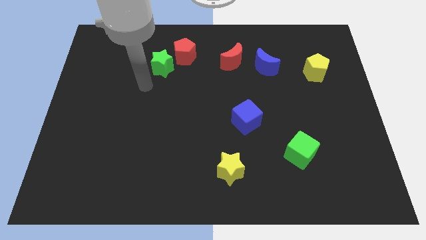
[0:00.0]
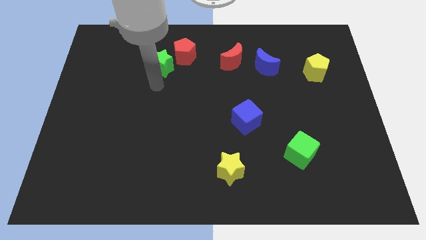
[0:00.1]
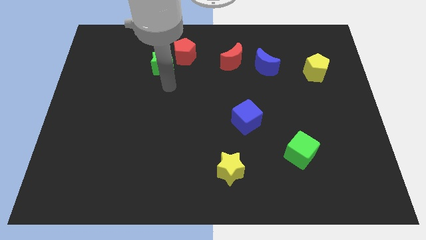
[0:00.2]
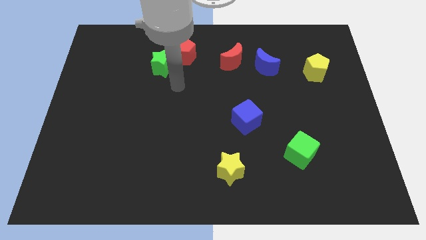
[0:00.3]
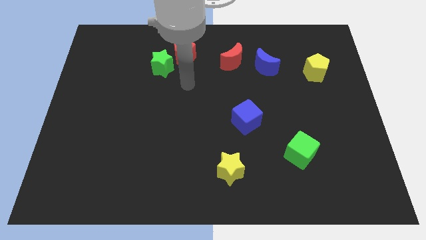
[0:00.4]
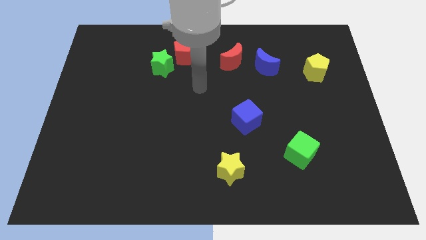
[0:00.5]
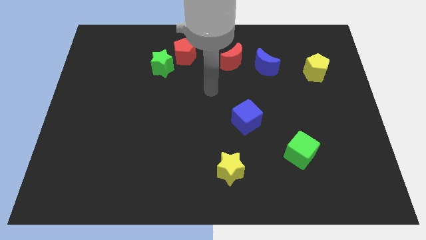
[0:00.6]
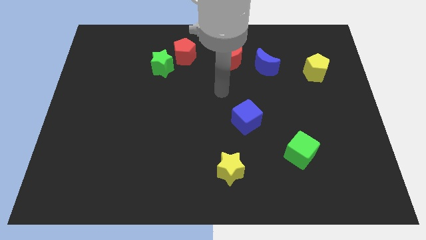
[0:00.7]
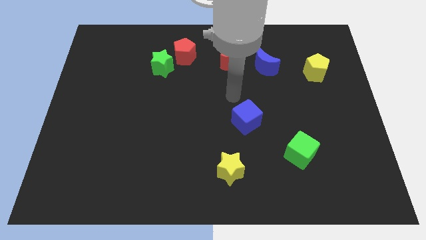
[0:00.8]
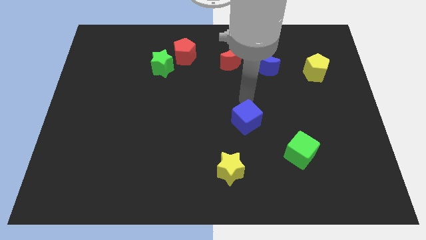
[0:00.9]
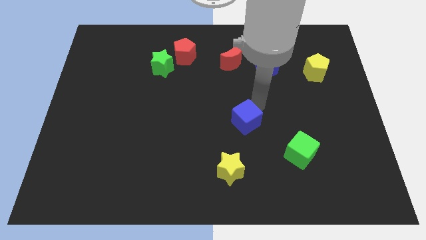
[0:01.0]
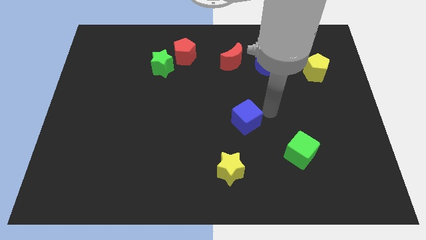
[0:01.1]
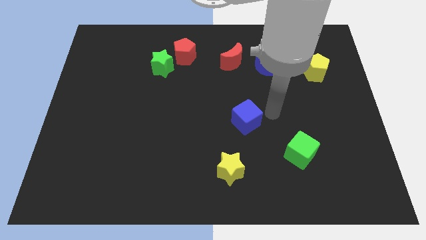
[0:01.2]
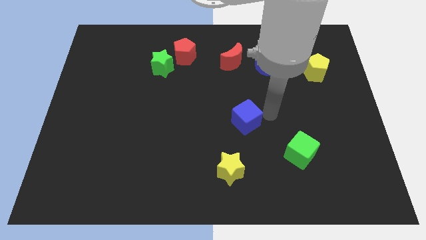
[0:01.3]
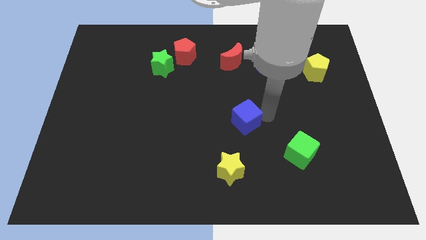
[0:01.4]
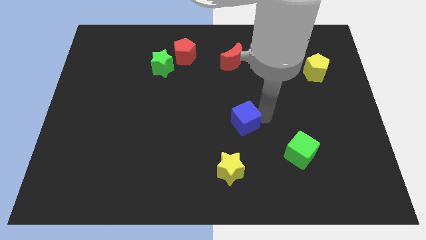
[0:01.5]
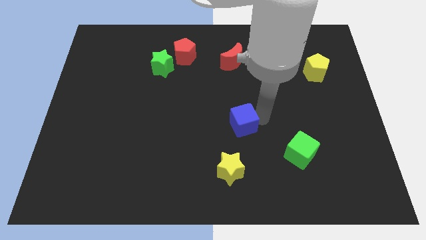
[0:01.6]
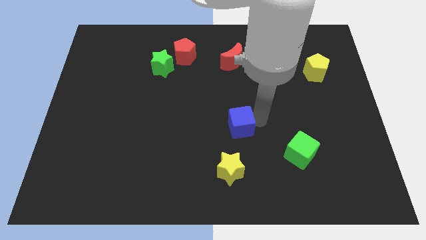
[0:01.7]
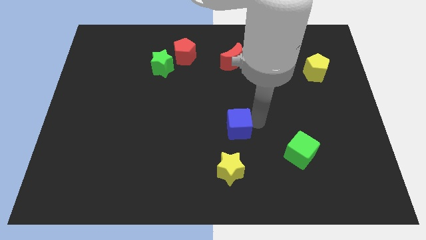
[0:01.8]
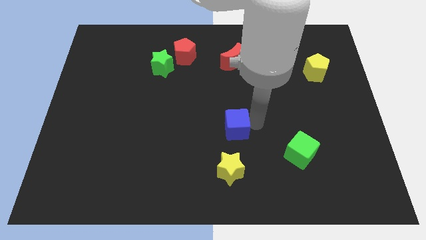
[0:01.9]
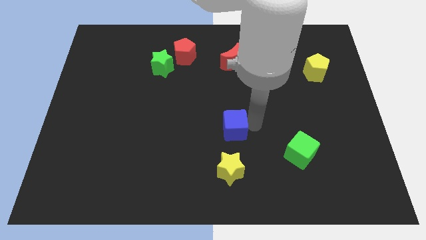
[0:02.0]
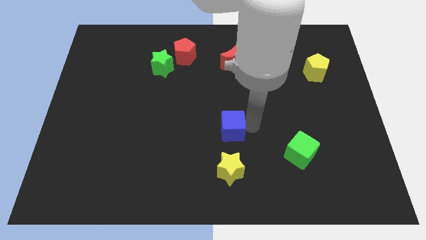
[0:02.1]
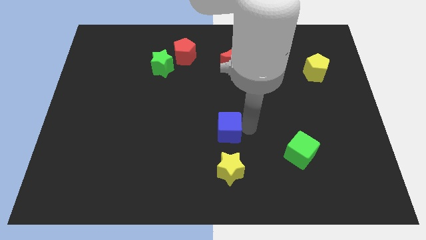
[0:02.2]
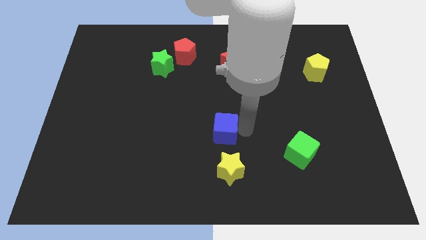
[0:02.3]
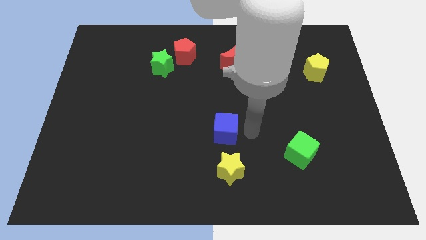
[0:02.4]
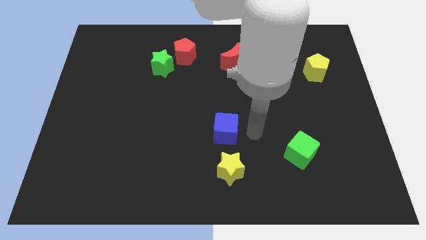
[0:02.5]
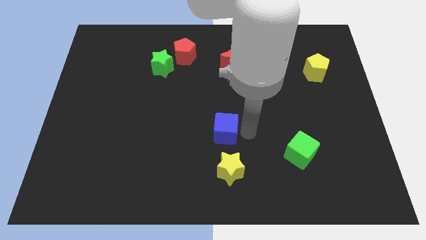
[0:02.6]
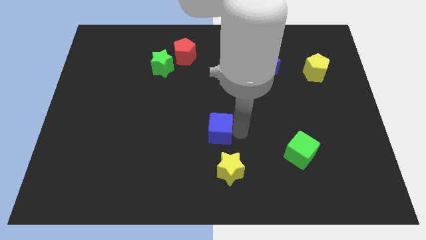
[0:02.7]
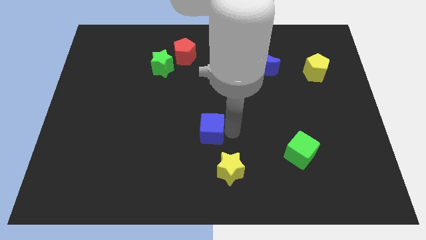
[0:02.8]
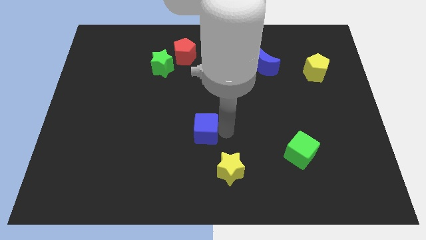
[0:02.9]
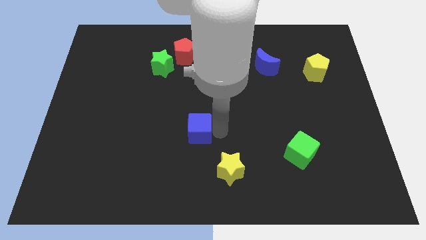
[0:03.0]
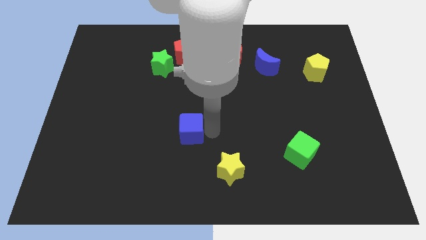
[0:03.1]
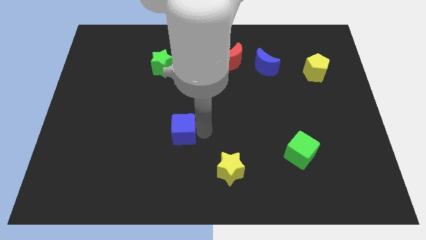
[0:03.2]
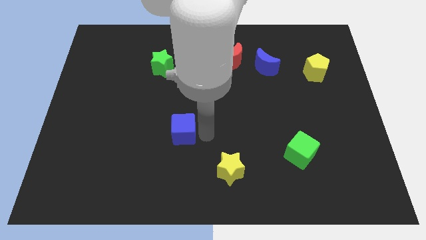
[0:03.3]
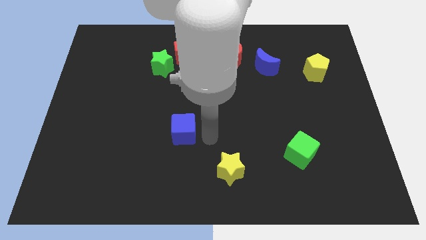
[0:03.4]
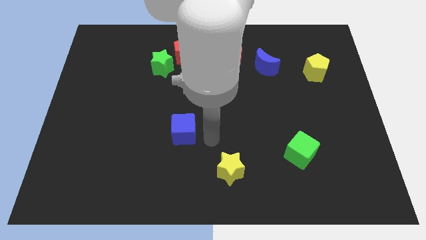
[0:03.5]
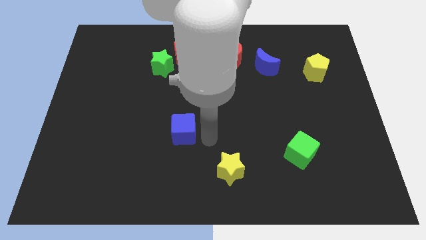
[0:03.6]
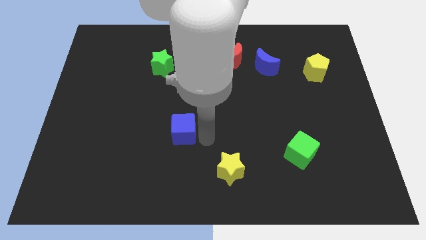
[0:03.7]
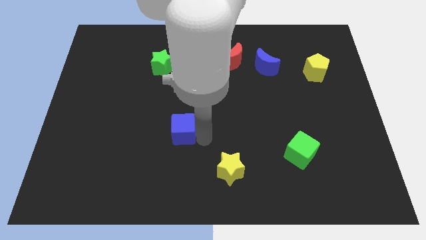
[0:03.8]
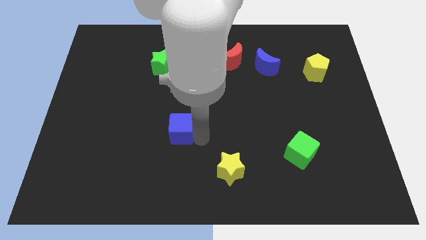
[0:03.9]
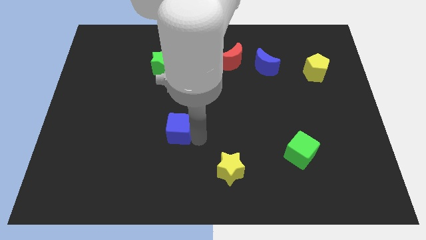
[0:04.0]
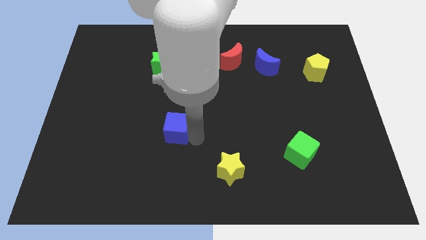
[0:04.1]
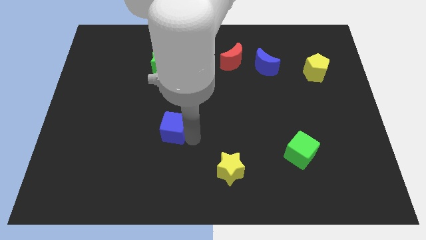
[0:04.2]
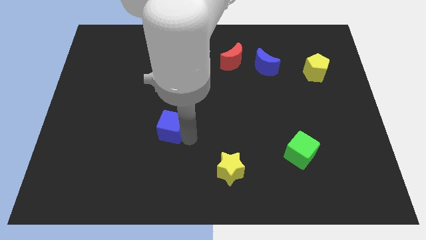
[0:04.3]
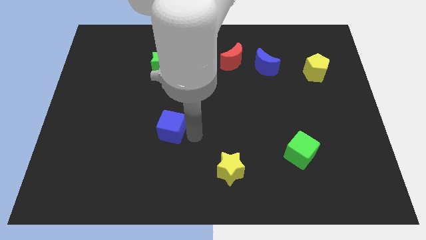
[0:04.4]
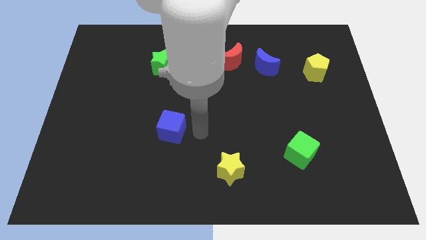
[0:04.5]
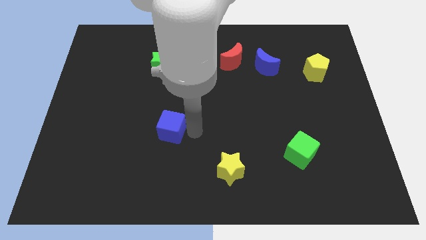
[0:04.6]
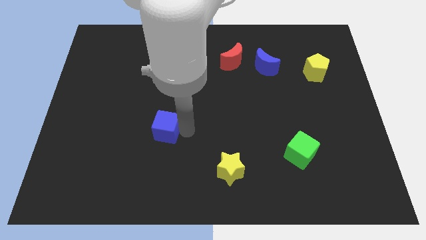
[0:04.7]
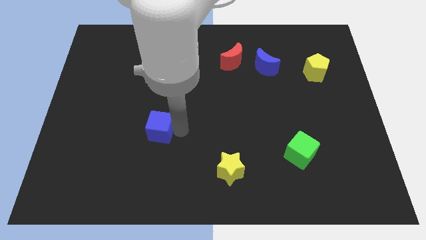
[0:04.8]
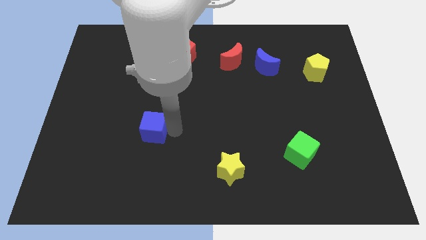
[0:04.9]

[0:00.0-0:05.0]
push the blue cube left

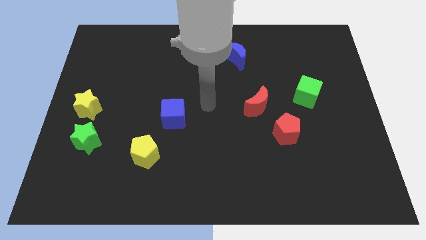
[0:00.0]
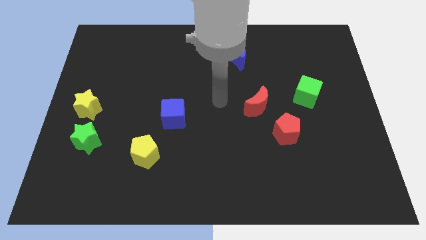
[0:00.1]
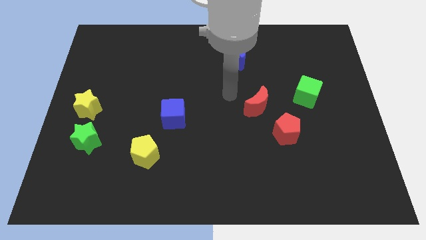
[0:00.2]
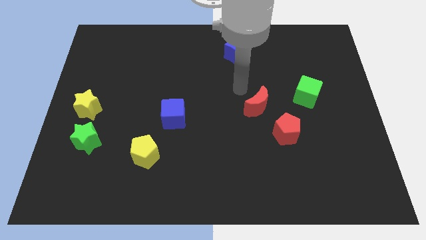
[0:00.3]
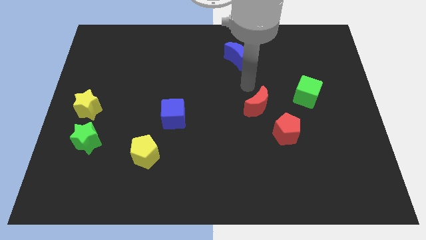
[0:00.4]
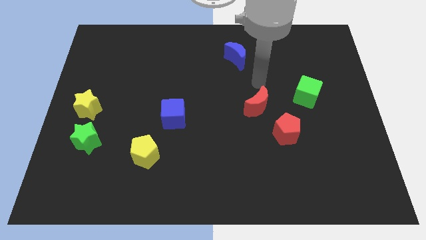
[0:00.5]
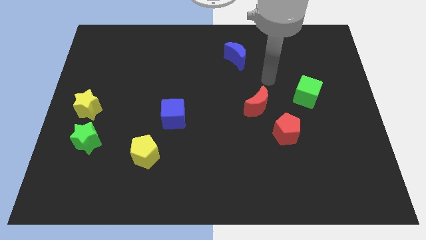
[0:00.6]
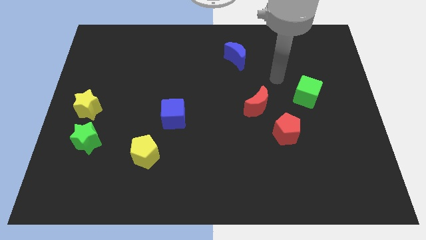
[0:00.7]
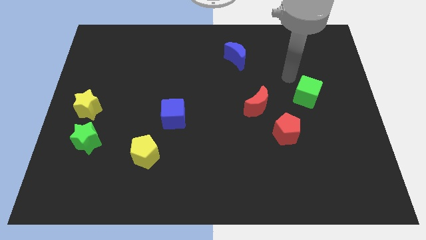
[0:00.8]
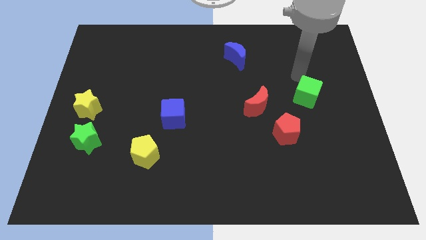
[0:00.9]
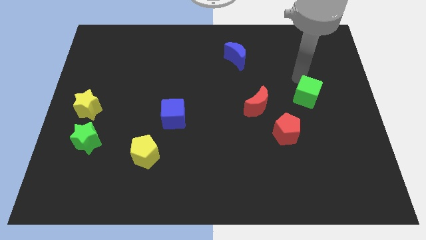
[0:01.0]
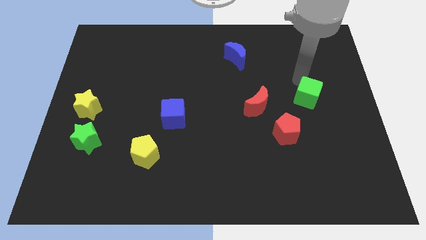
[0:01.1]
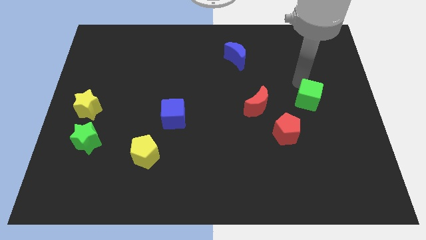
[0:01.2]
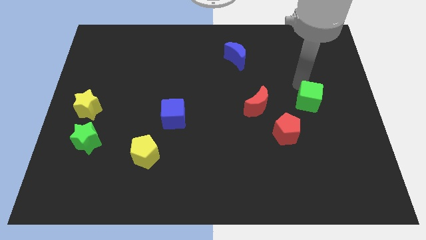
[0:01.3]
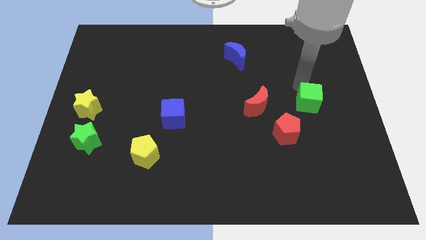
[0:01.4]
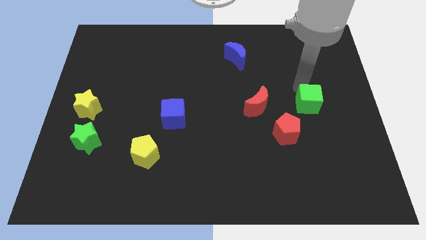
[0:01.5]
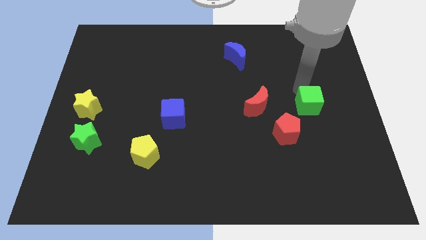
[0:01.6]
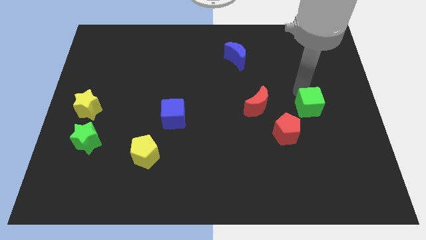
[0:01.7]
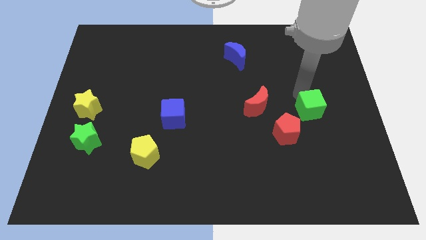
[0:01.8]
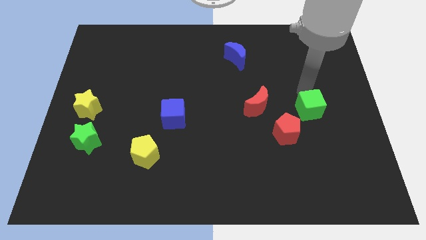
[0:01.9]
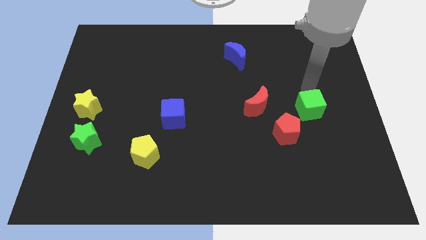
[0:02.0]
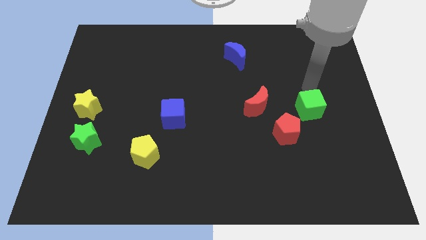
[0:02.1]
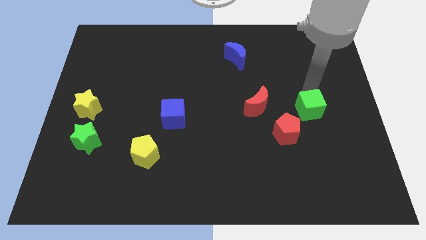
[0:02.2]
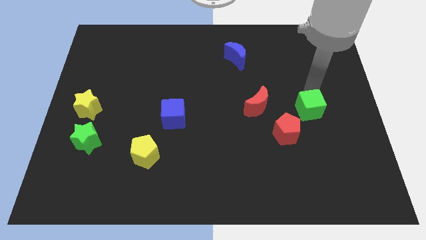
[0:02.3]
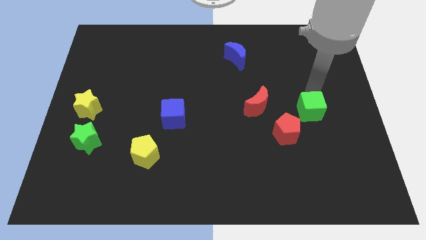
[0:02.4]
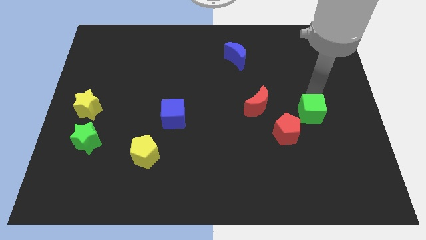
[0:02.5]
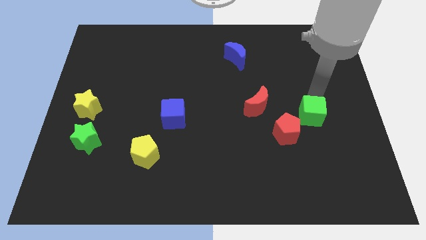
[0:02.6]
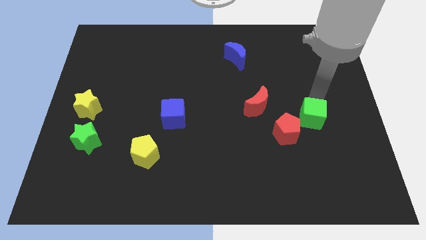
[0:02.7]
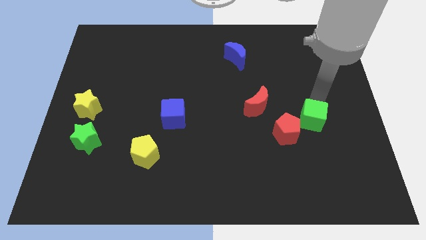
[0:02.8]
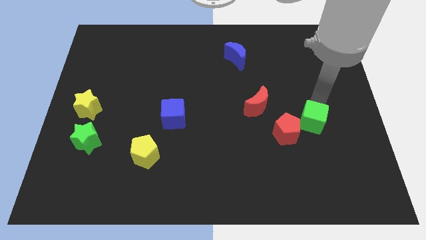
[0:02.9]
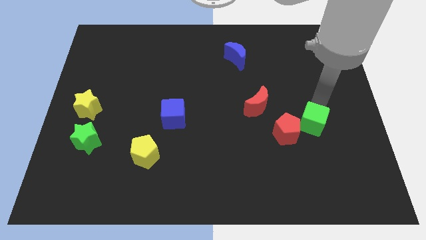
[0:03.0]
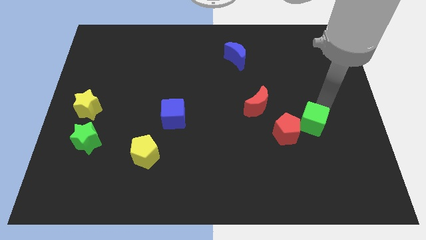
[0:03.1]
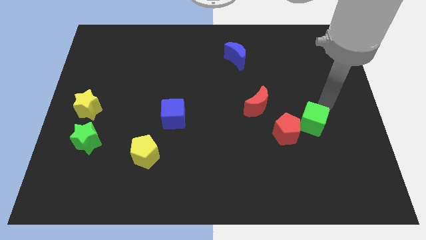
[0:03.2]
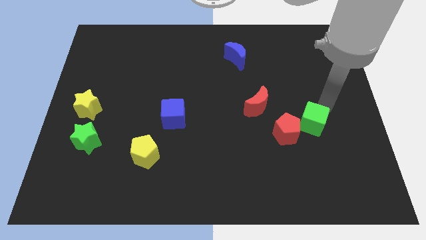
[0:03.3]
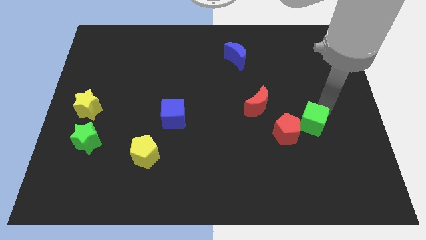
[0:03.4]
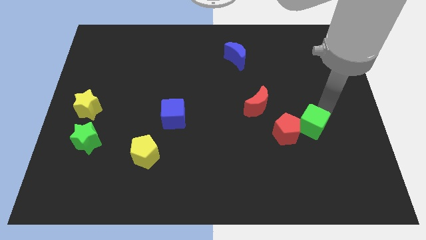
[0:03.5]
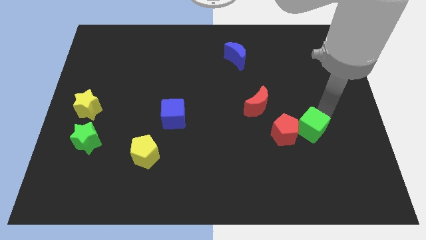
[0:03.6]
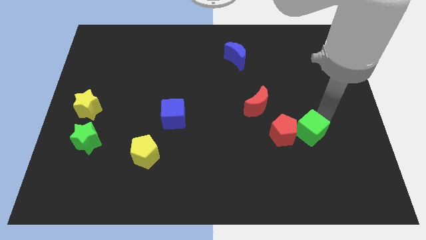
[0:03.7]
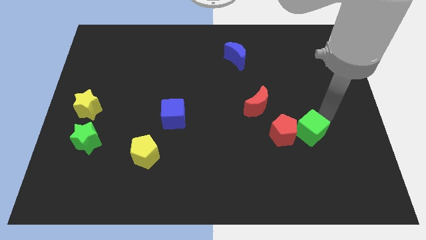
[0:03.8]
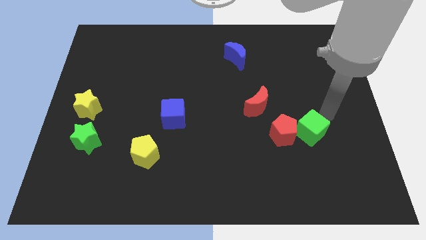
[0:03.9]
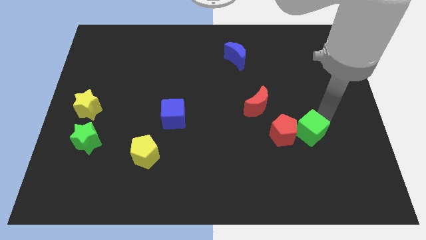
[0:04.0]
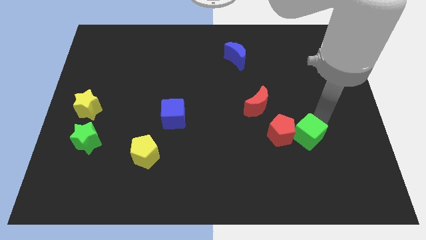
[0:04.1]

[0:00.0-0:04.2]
push the green cube down and left diagonally a little
